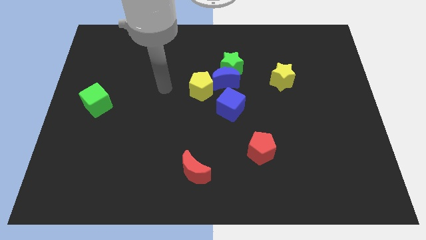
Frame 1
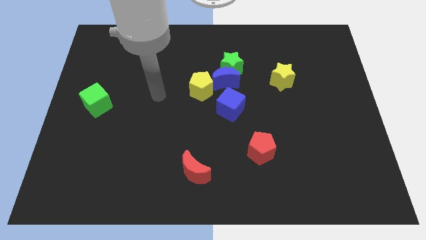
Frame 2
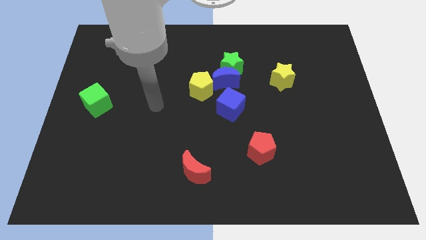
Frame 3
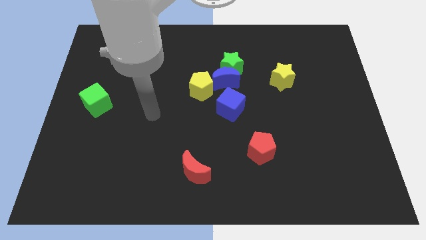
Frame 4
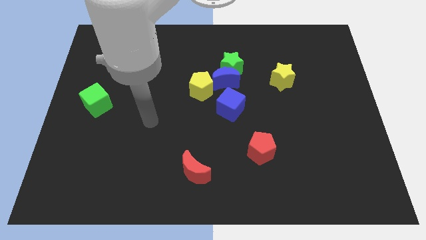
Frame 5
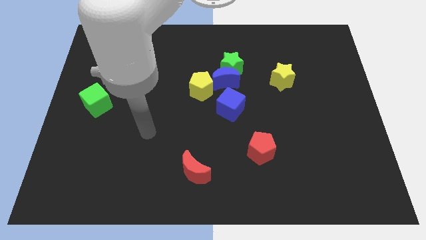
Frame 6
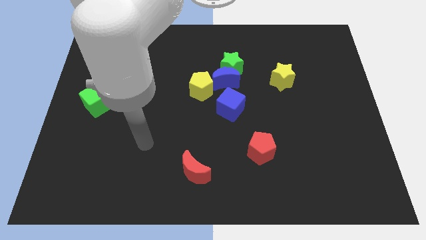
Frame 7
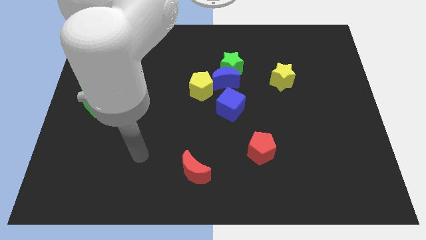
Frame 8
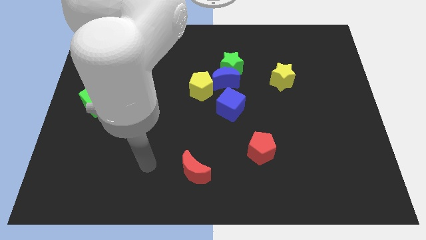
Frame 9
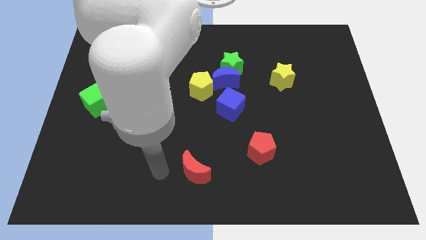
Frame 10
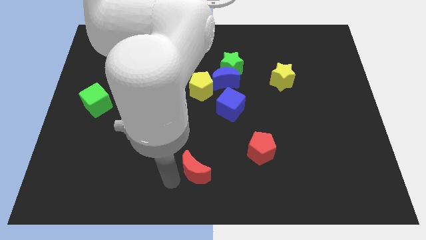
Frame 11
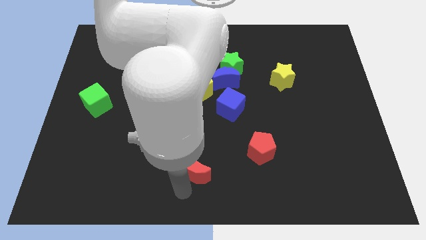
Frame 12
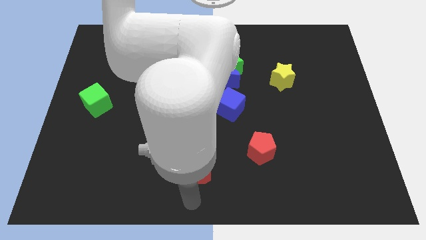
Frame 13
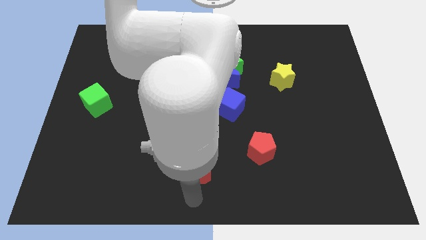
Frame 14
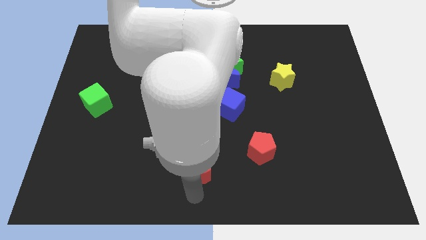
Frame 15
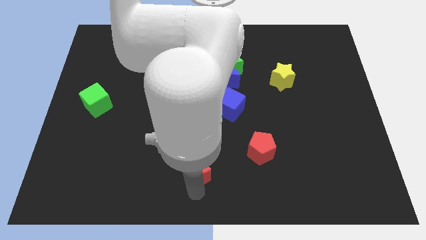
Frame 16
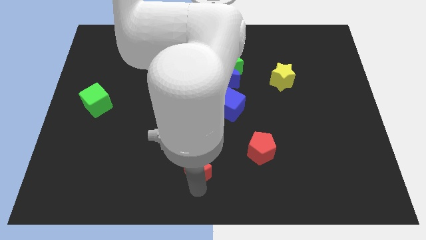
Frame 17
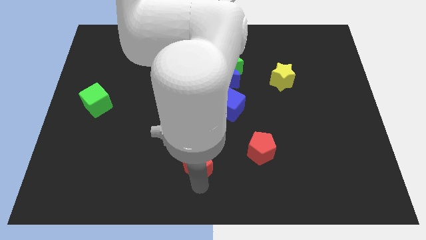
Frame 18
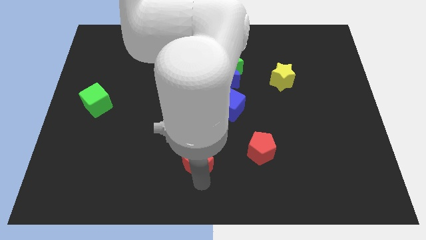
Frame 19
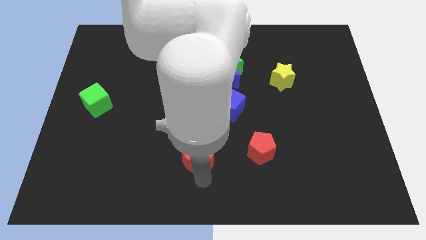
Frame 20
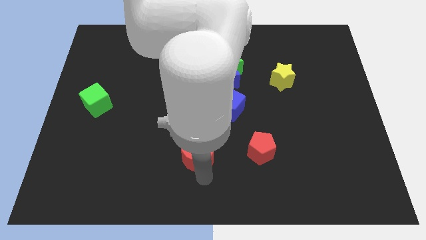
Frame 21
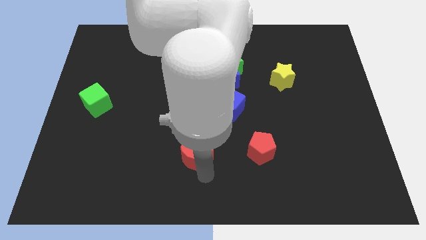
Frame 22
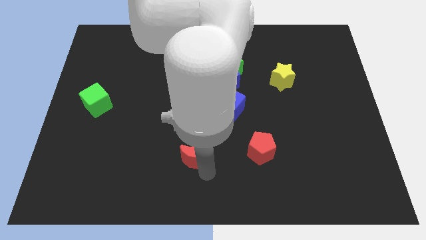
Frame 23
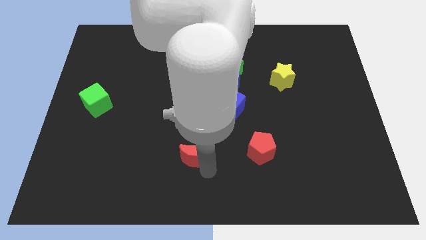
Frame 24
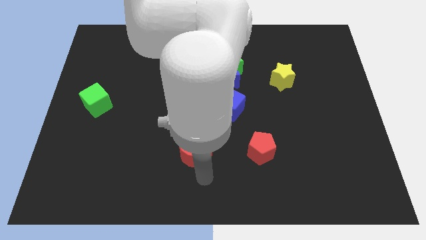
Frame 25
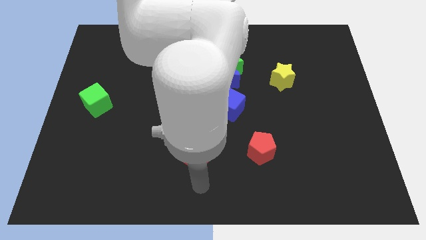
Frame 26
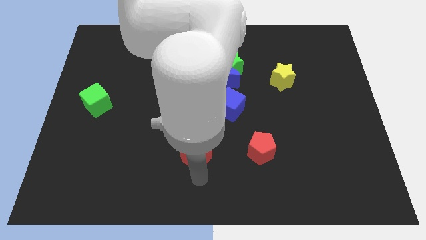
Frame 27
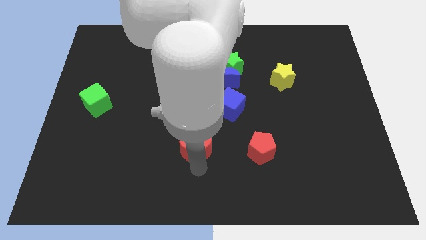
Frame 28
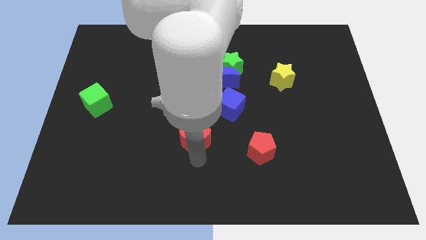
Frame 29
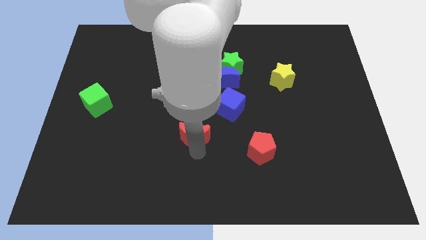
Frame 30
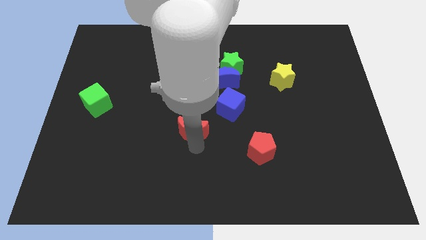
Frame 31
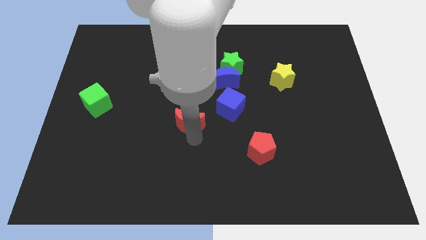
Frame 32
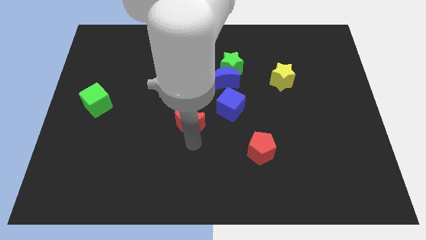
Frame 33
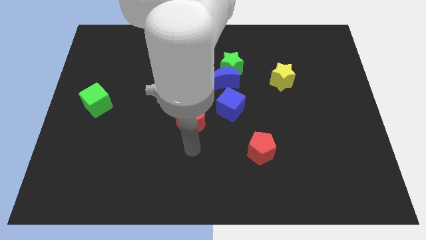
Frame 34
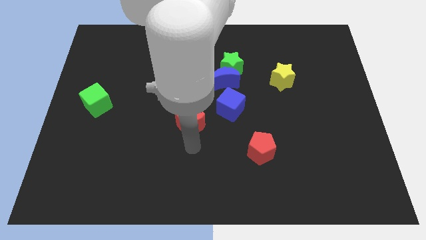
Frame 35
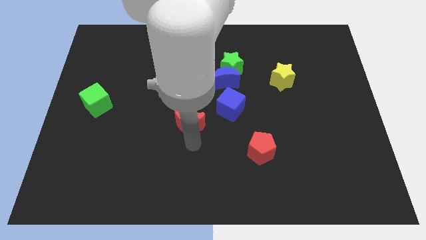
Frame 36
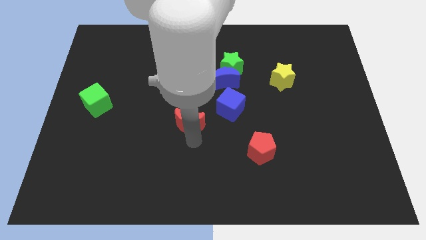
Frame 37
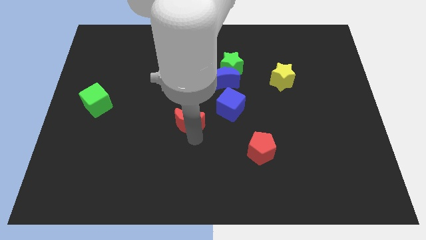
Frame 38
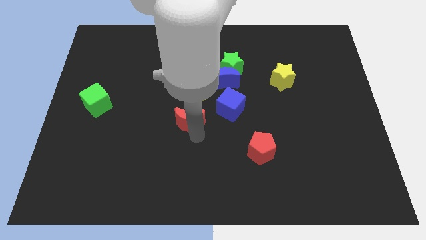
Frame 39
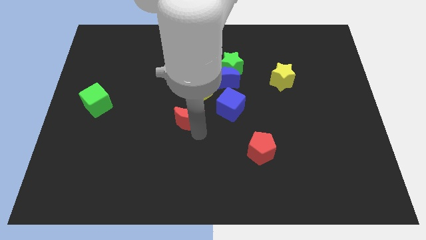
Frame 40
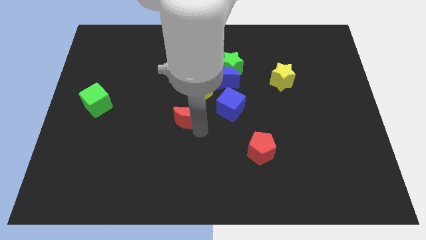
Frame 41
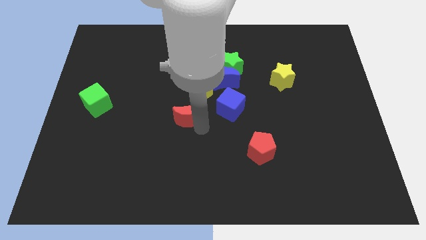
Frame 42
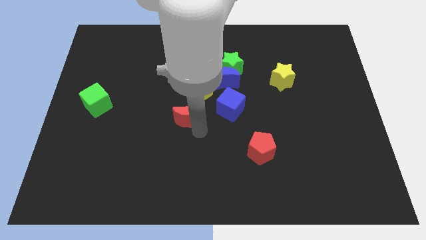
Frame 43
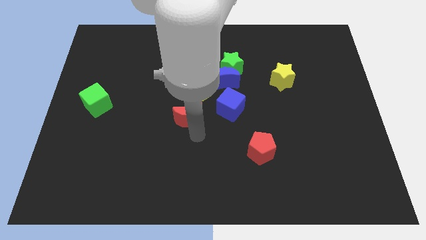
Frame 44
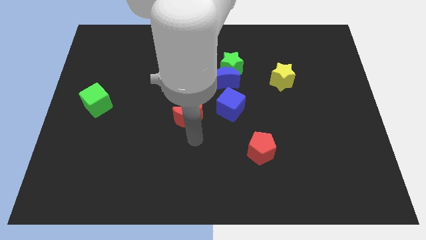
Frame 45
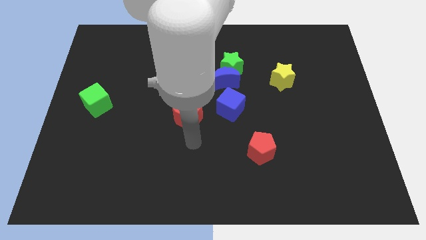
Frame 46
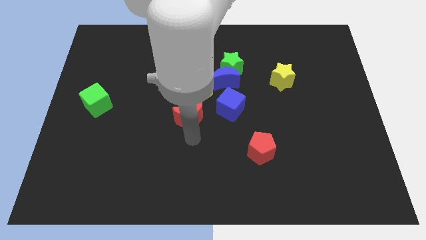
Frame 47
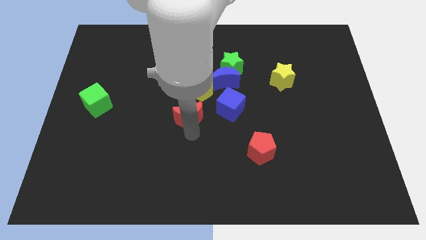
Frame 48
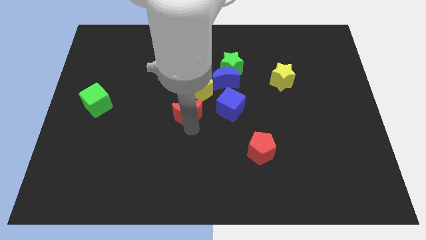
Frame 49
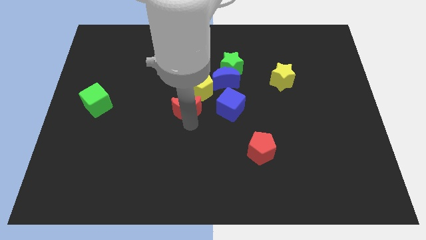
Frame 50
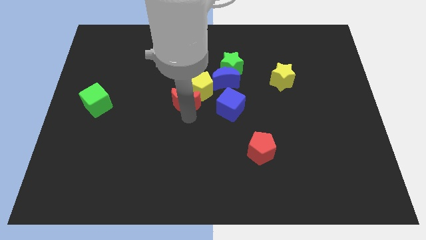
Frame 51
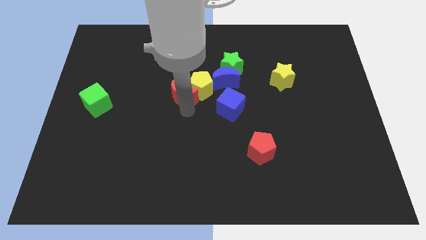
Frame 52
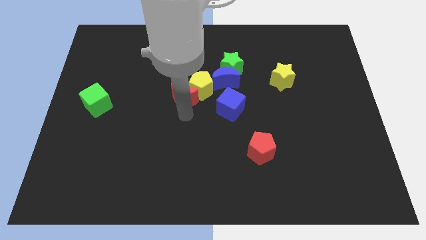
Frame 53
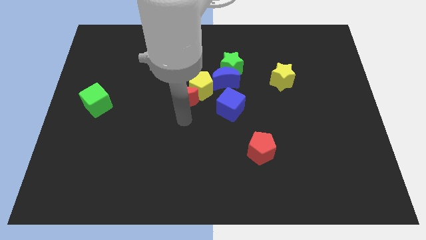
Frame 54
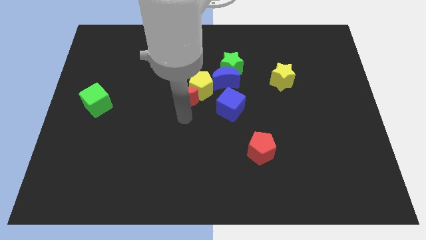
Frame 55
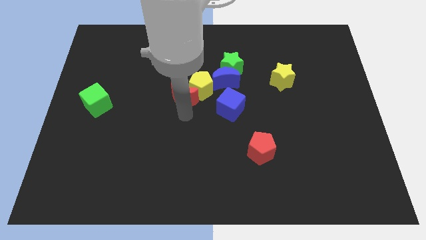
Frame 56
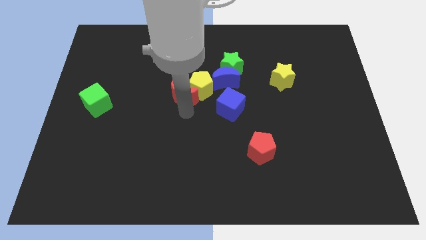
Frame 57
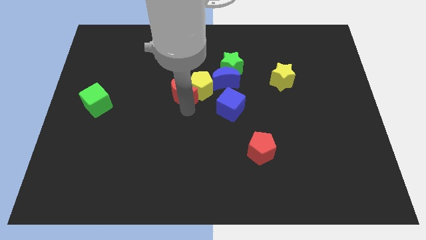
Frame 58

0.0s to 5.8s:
put the red moon to the left of the blue moon

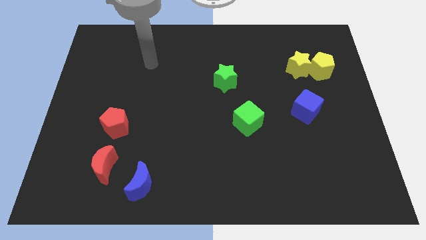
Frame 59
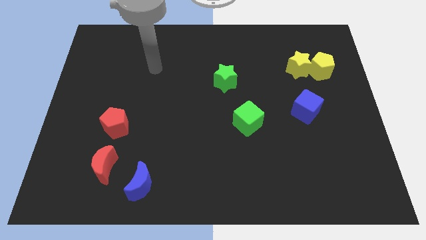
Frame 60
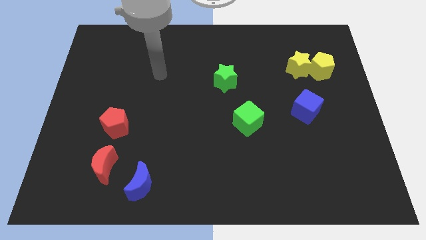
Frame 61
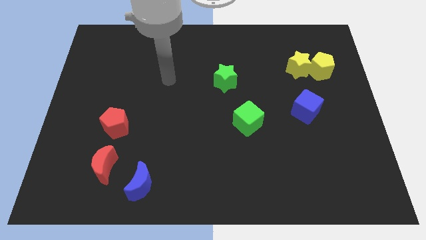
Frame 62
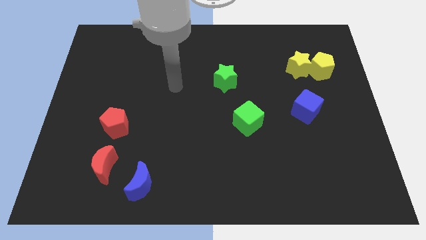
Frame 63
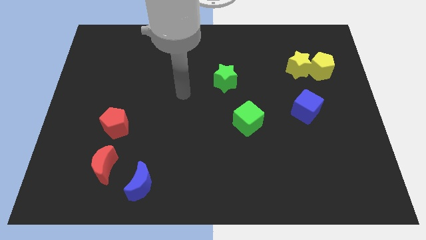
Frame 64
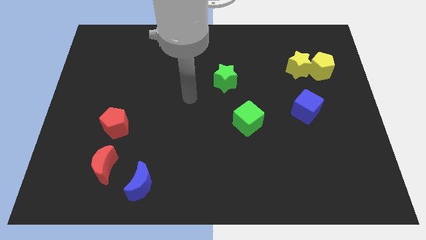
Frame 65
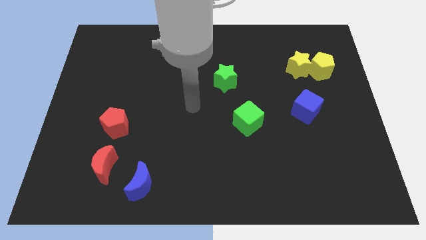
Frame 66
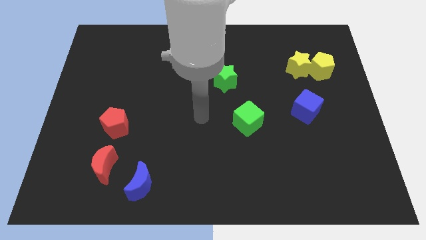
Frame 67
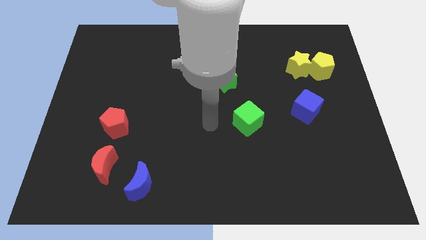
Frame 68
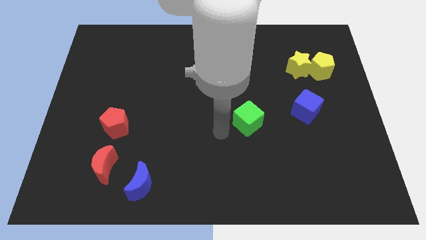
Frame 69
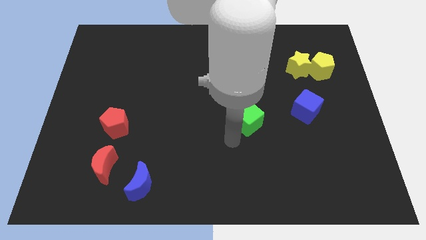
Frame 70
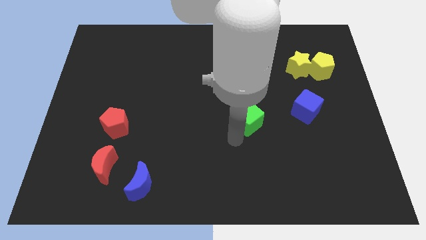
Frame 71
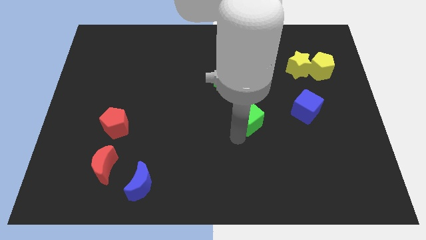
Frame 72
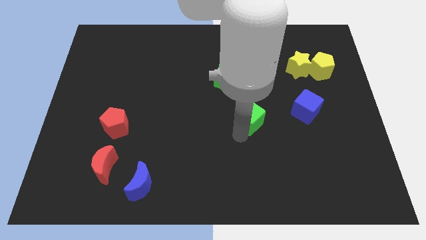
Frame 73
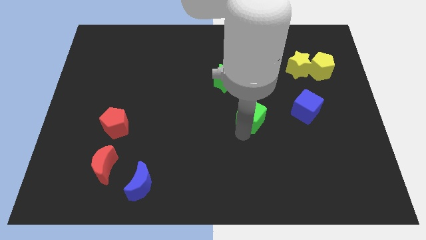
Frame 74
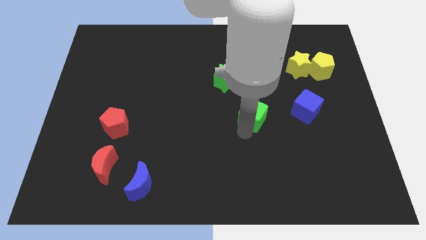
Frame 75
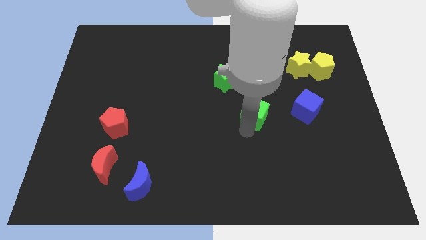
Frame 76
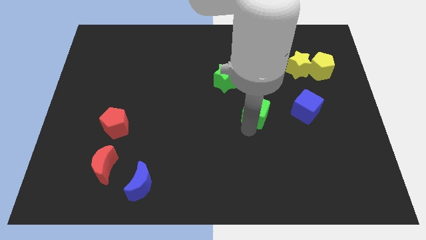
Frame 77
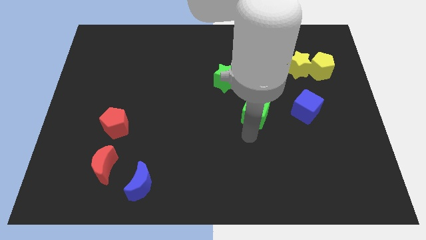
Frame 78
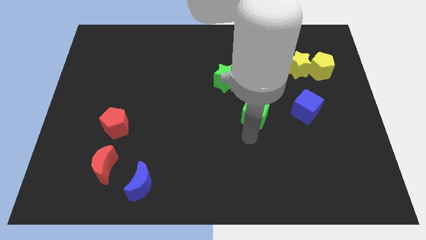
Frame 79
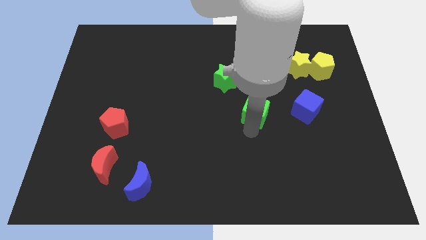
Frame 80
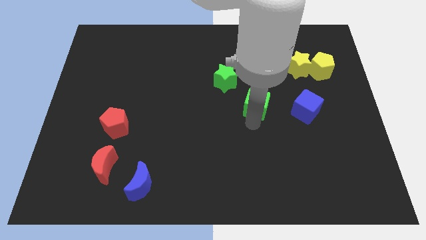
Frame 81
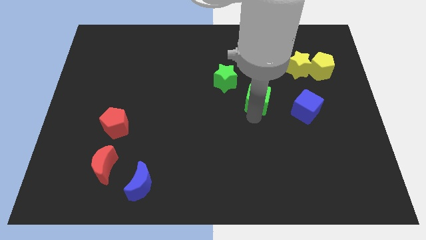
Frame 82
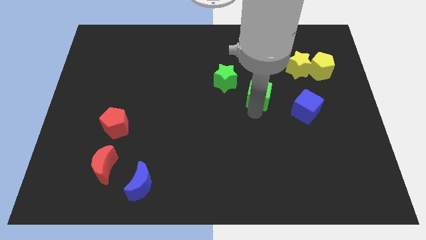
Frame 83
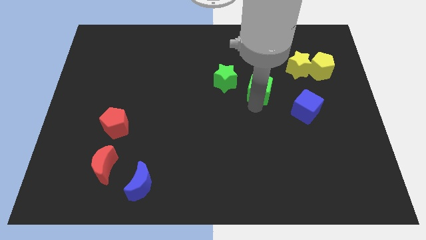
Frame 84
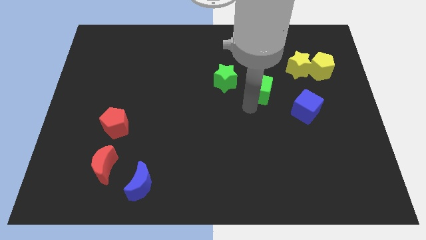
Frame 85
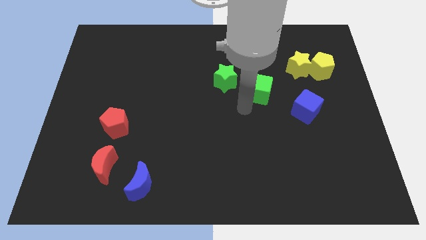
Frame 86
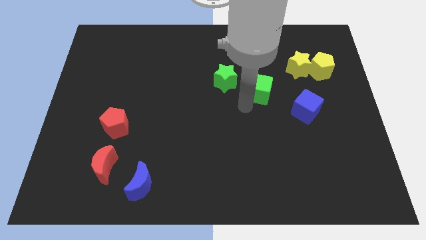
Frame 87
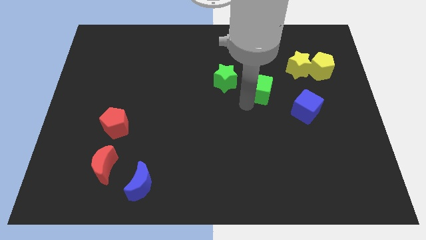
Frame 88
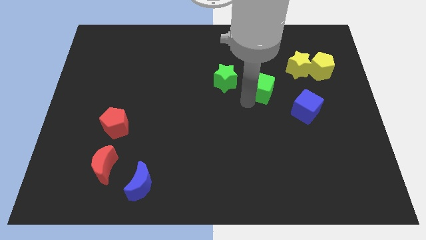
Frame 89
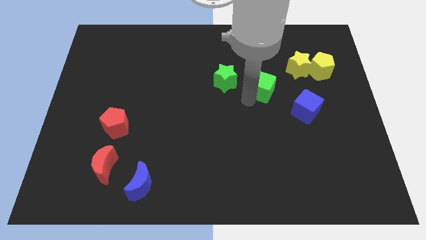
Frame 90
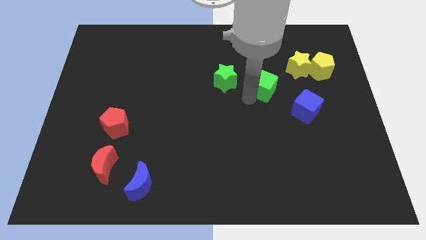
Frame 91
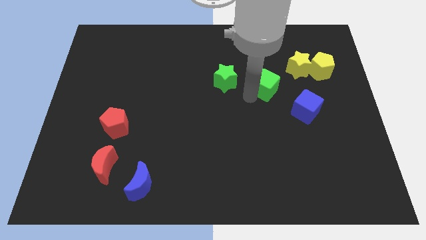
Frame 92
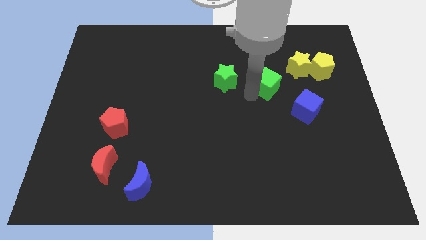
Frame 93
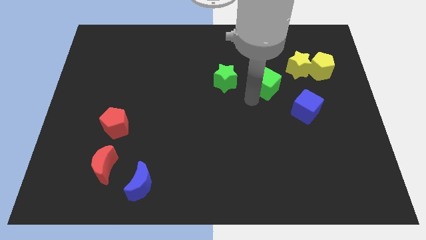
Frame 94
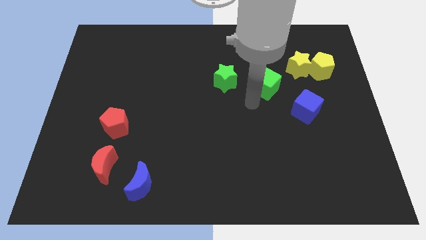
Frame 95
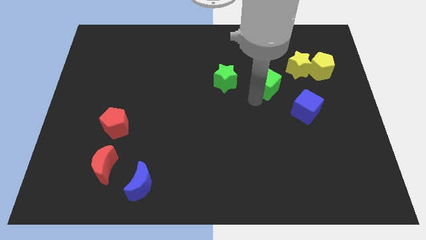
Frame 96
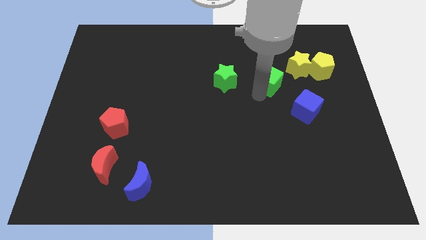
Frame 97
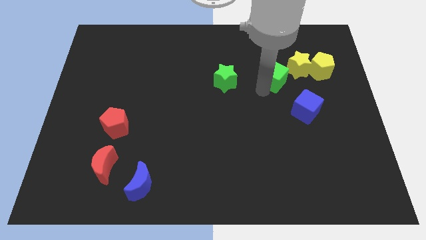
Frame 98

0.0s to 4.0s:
slide the green cube left of the yellow pentagon
